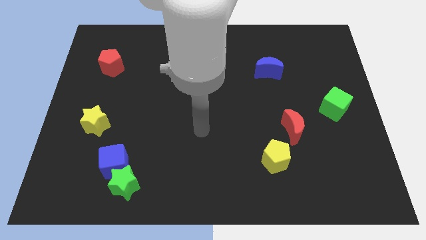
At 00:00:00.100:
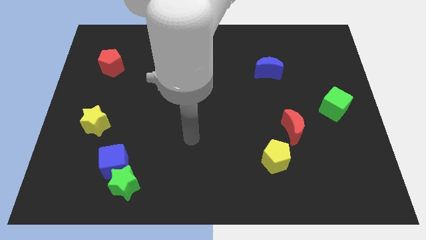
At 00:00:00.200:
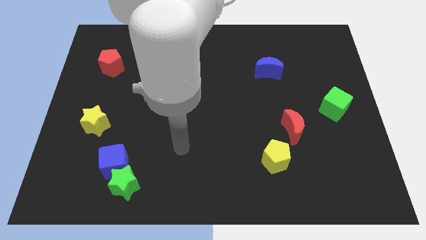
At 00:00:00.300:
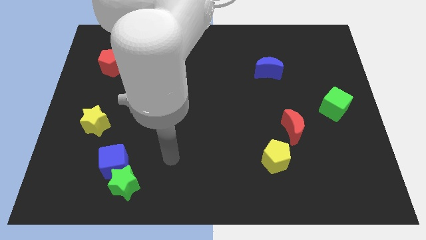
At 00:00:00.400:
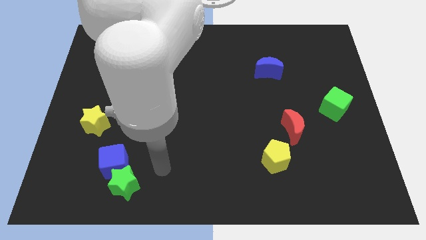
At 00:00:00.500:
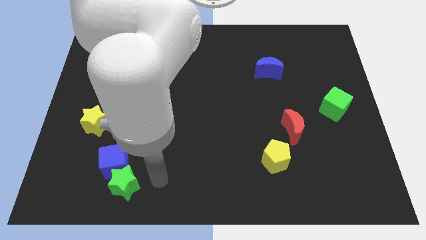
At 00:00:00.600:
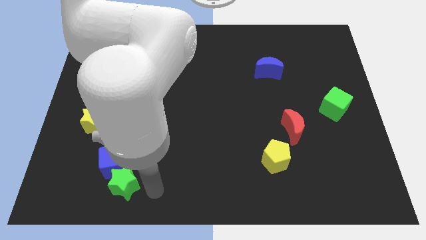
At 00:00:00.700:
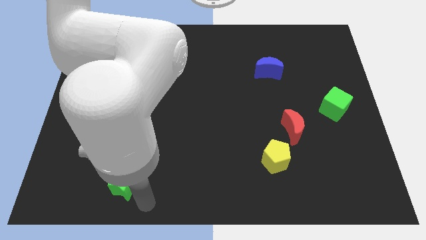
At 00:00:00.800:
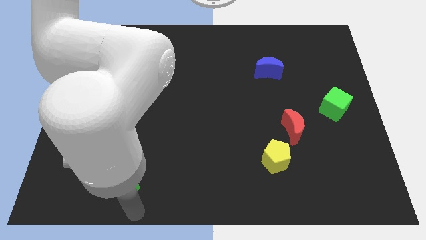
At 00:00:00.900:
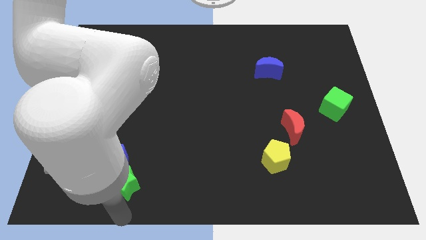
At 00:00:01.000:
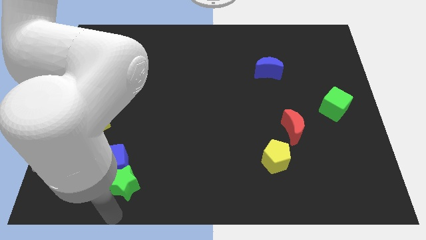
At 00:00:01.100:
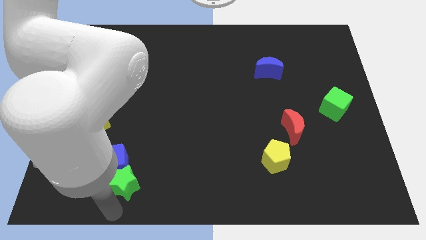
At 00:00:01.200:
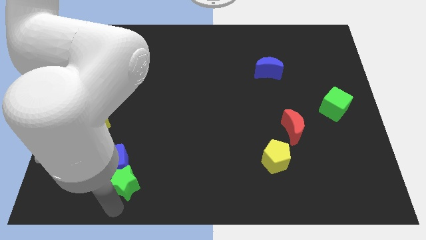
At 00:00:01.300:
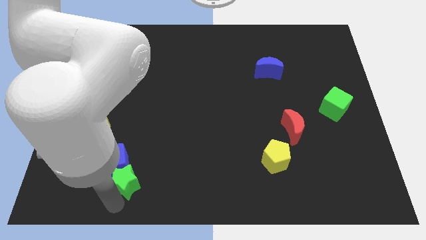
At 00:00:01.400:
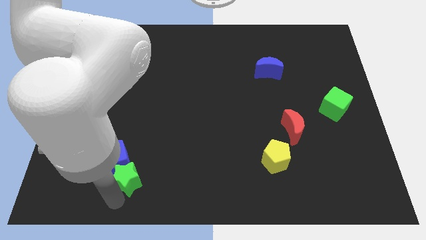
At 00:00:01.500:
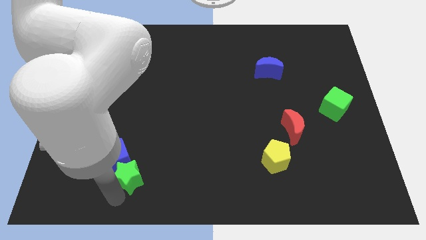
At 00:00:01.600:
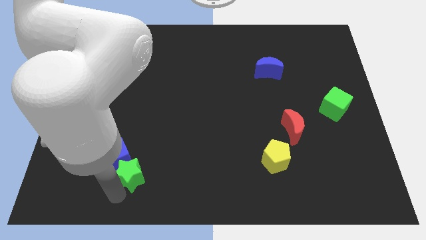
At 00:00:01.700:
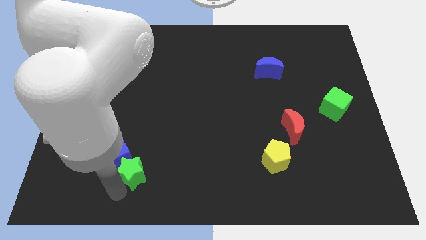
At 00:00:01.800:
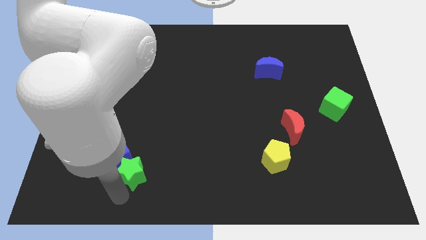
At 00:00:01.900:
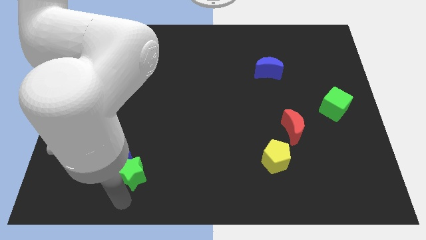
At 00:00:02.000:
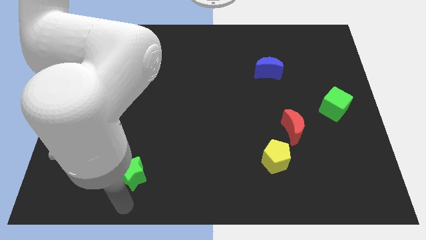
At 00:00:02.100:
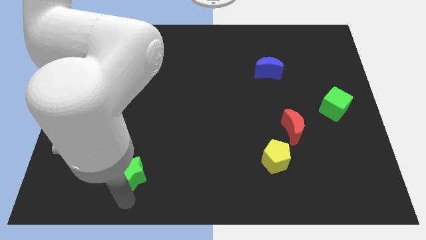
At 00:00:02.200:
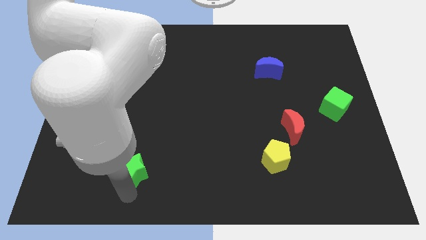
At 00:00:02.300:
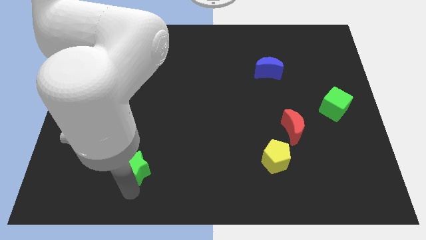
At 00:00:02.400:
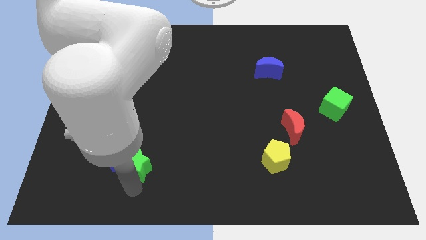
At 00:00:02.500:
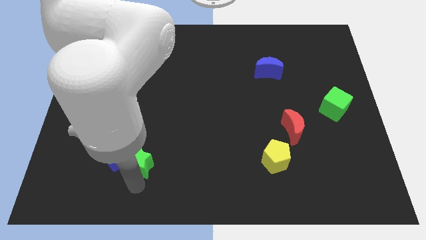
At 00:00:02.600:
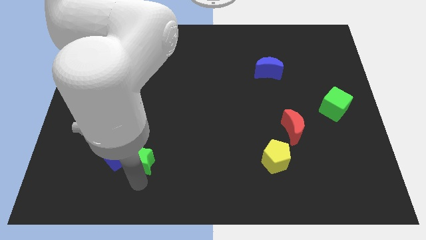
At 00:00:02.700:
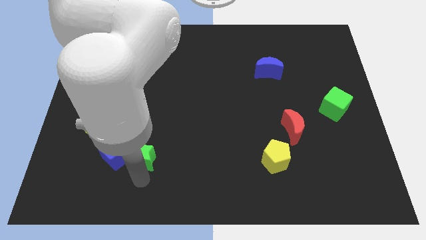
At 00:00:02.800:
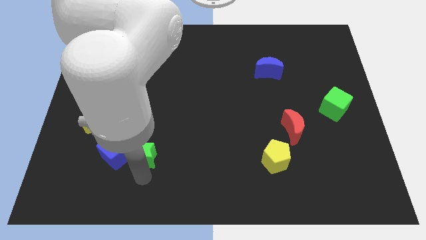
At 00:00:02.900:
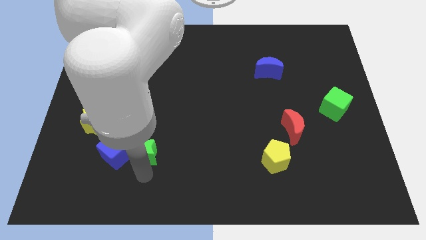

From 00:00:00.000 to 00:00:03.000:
push the green star slightly upwards

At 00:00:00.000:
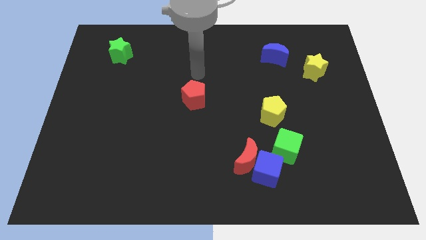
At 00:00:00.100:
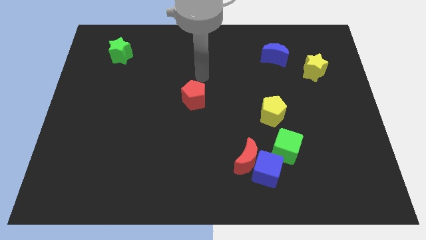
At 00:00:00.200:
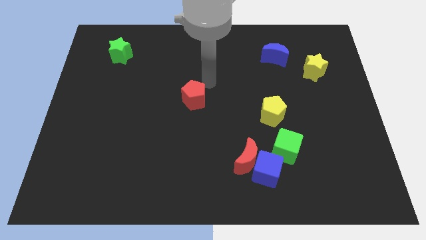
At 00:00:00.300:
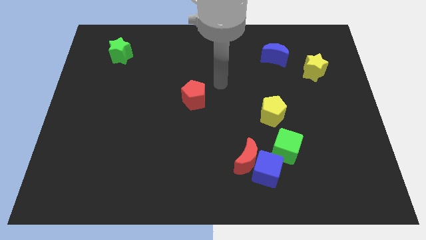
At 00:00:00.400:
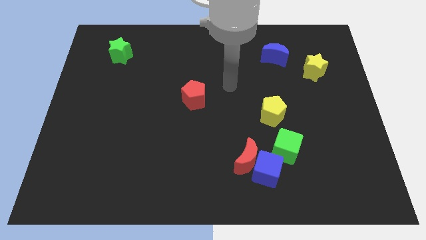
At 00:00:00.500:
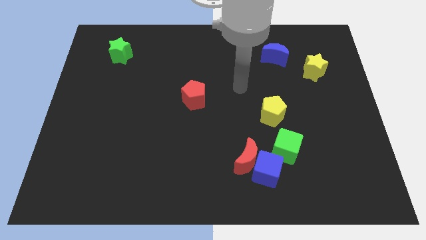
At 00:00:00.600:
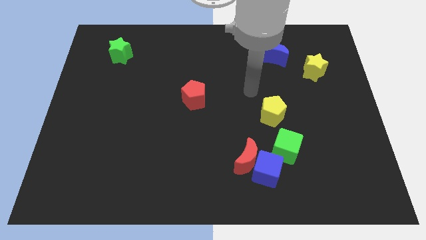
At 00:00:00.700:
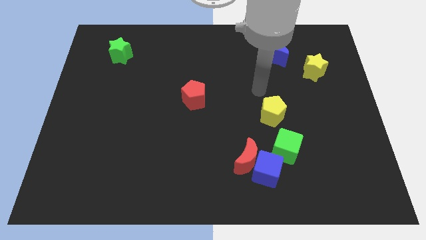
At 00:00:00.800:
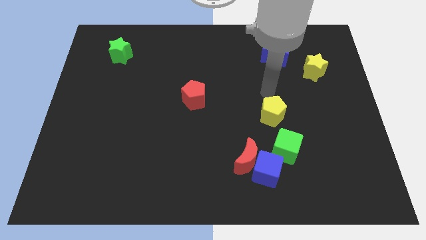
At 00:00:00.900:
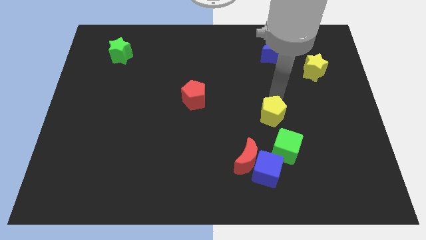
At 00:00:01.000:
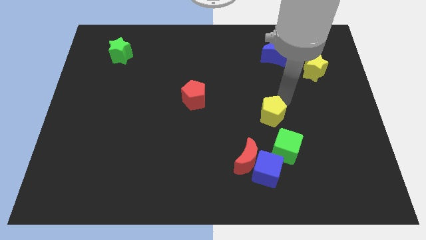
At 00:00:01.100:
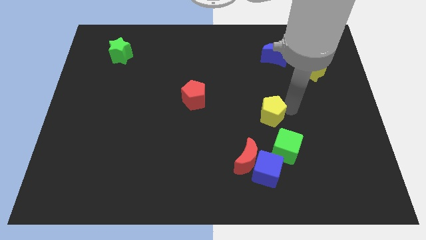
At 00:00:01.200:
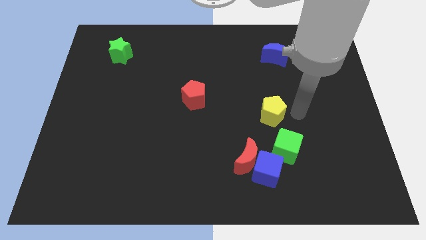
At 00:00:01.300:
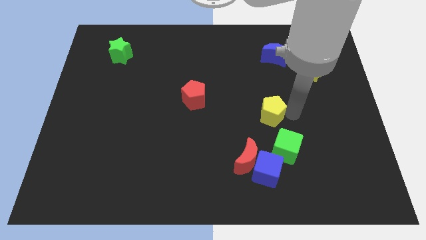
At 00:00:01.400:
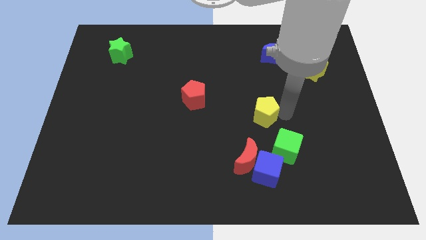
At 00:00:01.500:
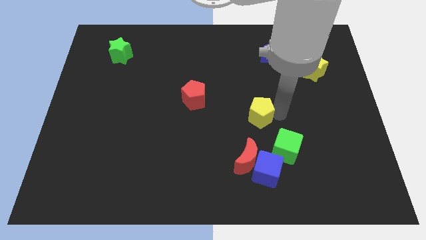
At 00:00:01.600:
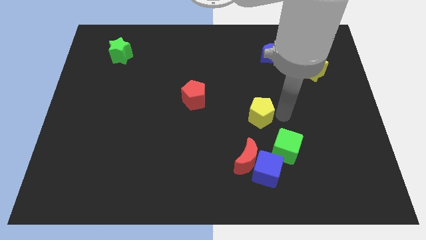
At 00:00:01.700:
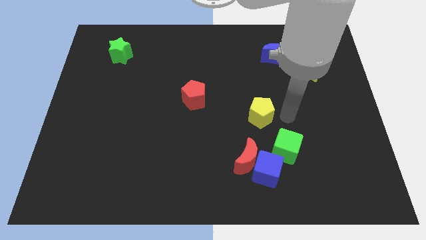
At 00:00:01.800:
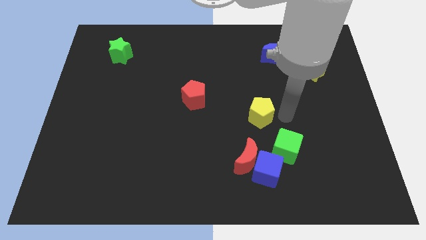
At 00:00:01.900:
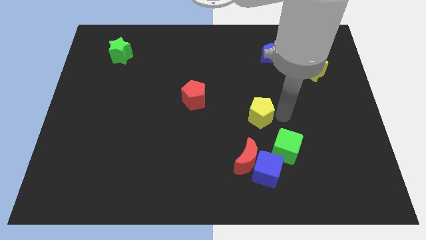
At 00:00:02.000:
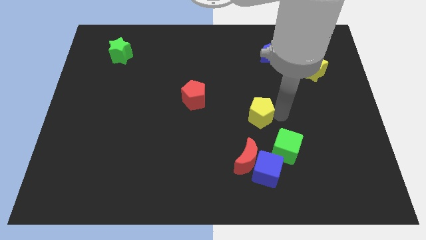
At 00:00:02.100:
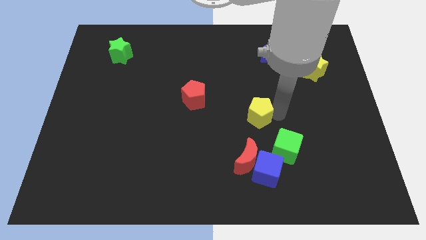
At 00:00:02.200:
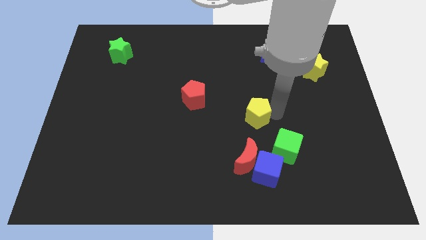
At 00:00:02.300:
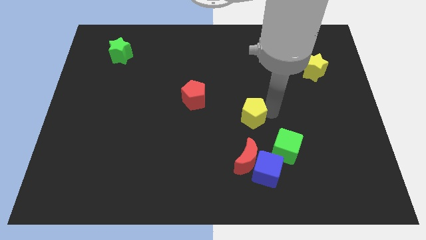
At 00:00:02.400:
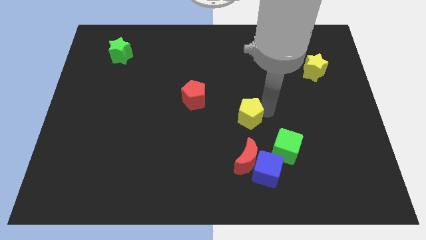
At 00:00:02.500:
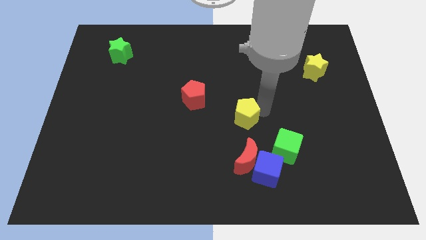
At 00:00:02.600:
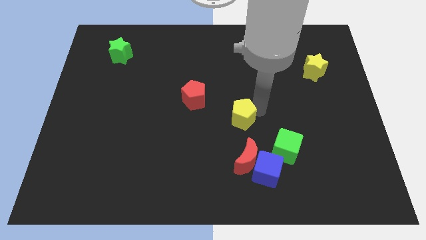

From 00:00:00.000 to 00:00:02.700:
slightly push the yellow pentagon left

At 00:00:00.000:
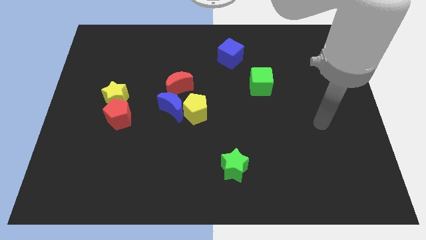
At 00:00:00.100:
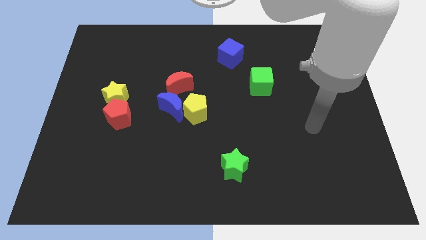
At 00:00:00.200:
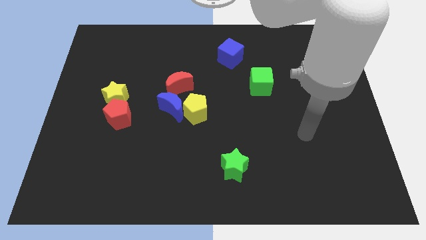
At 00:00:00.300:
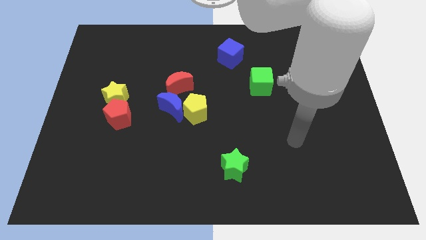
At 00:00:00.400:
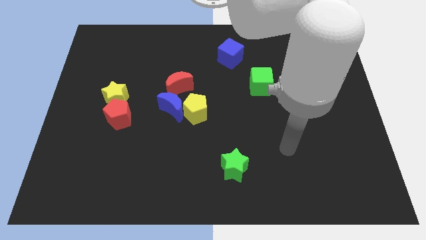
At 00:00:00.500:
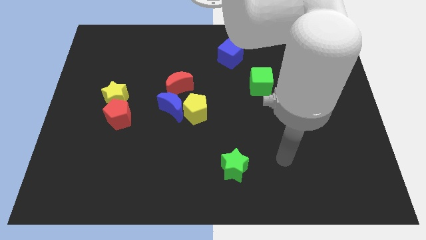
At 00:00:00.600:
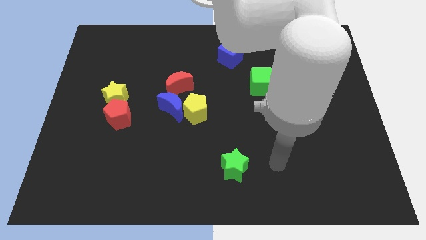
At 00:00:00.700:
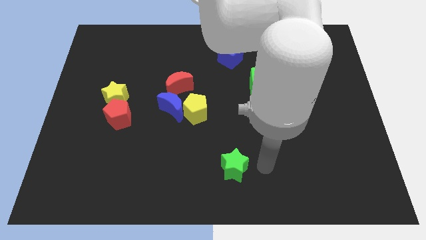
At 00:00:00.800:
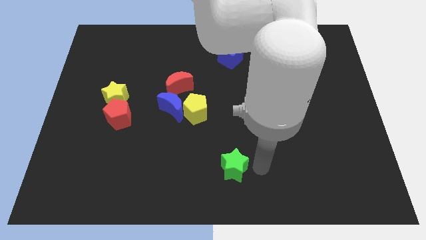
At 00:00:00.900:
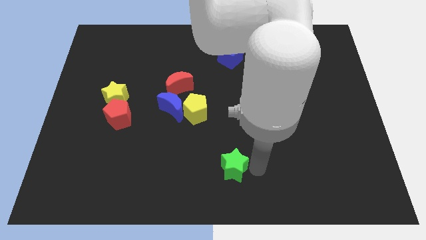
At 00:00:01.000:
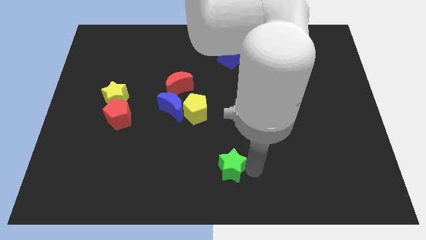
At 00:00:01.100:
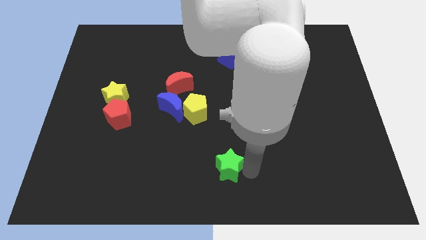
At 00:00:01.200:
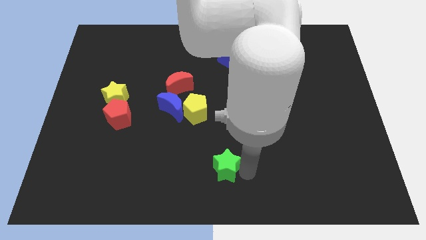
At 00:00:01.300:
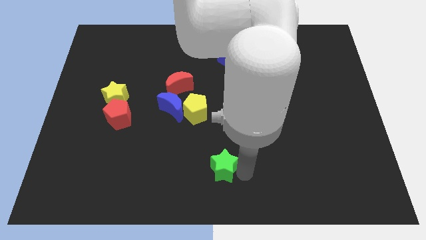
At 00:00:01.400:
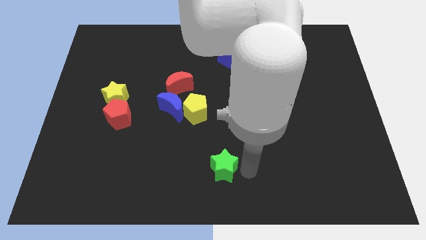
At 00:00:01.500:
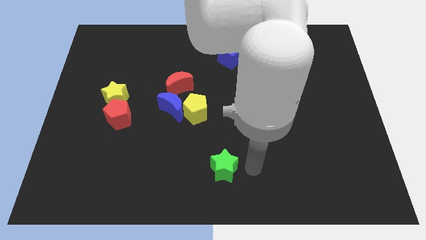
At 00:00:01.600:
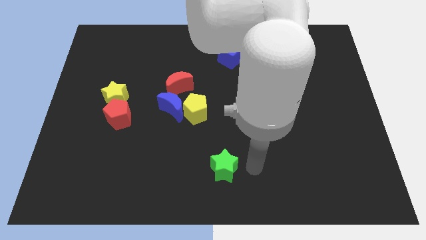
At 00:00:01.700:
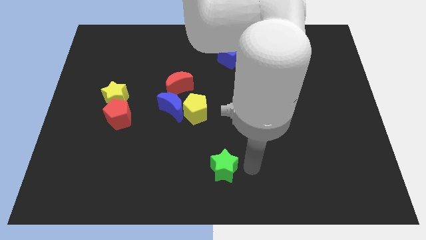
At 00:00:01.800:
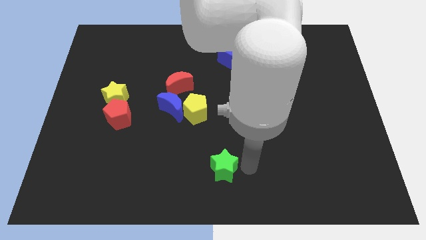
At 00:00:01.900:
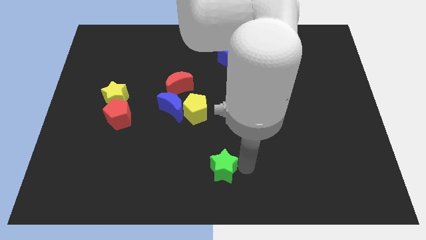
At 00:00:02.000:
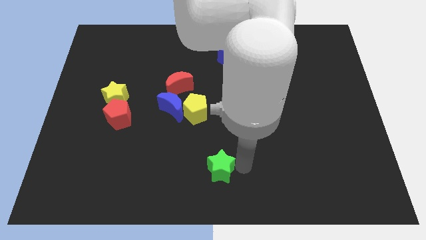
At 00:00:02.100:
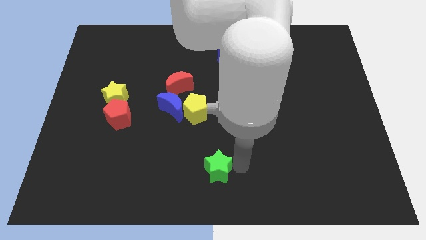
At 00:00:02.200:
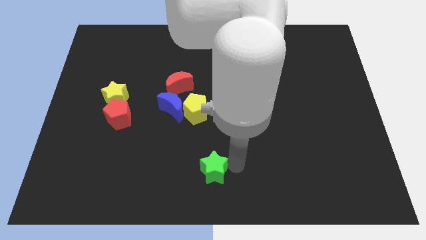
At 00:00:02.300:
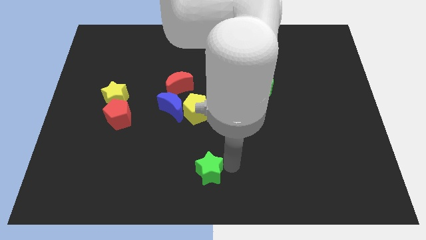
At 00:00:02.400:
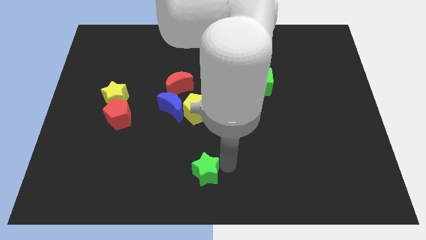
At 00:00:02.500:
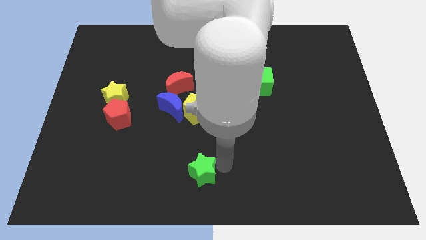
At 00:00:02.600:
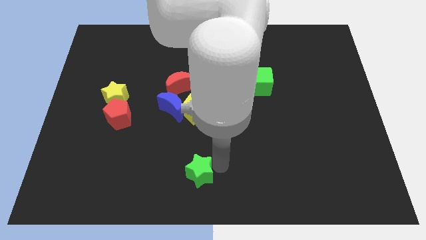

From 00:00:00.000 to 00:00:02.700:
move the green star left a little
